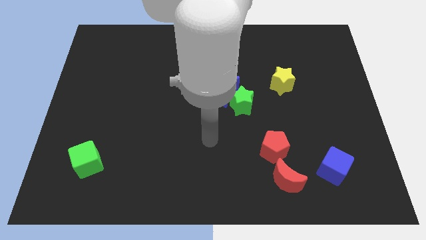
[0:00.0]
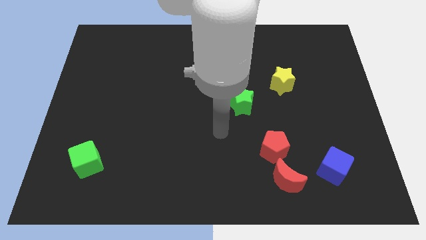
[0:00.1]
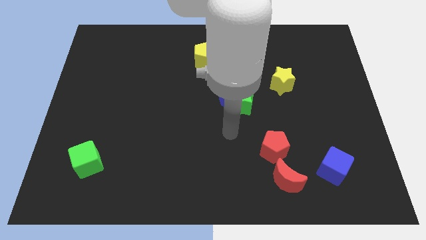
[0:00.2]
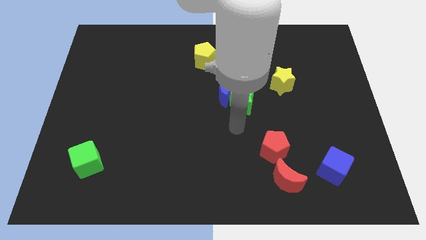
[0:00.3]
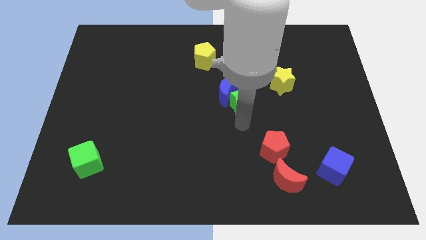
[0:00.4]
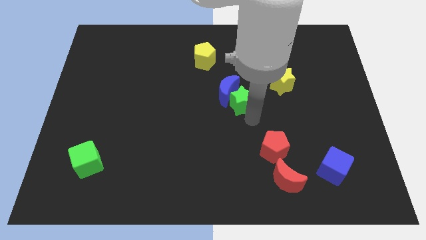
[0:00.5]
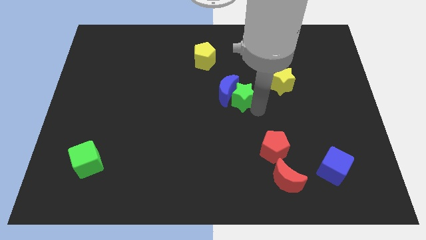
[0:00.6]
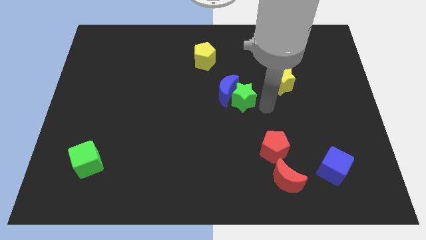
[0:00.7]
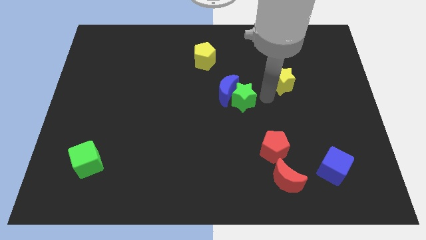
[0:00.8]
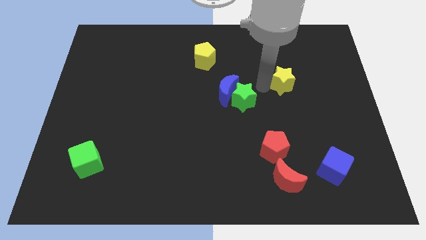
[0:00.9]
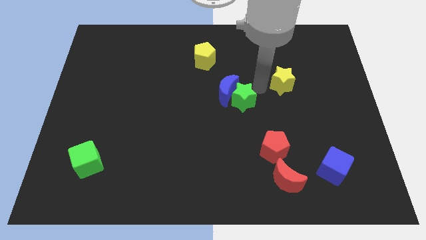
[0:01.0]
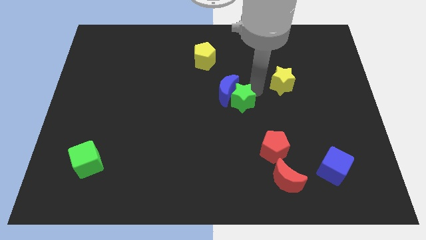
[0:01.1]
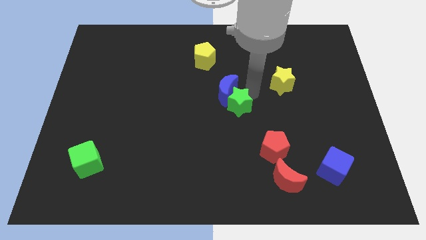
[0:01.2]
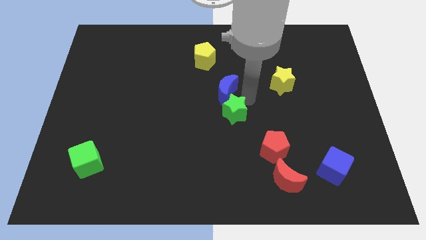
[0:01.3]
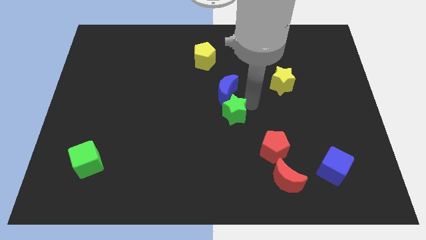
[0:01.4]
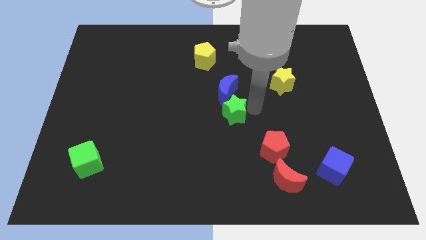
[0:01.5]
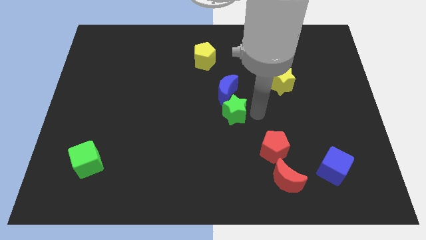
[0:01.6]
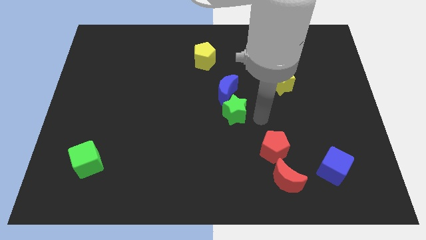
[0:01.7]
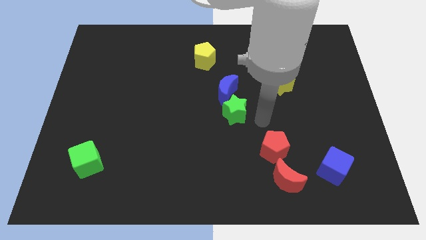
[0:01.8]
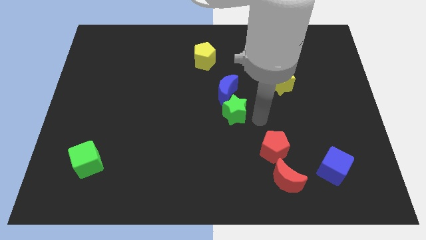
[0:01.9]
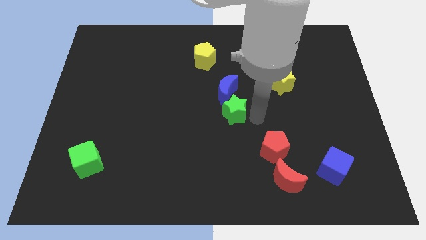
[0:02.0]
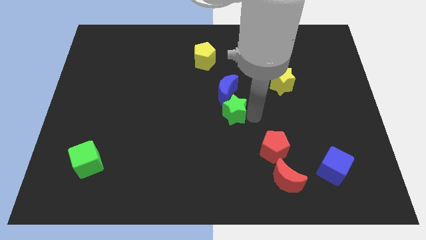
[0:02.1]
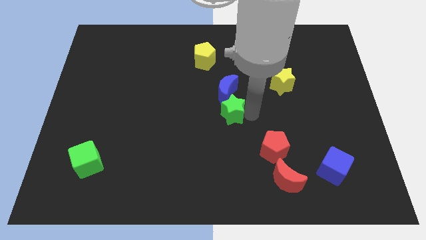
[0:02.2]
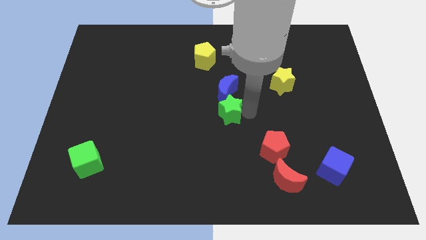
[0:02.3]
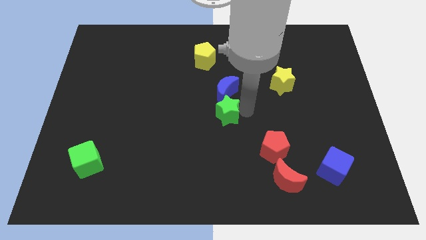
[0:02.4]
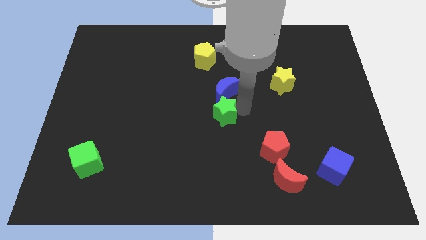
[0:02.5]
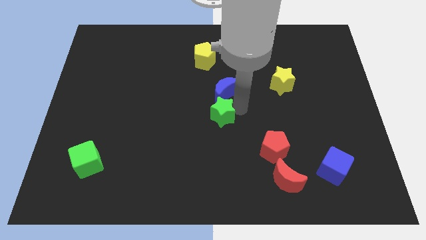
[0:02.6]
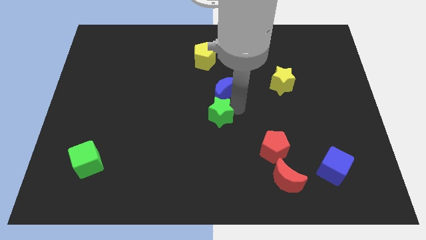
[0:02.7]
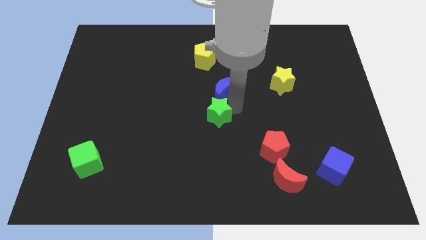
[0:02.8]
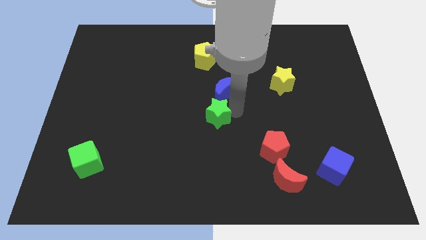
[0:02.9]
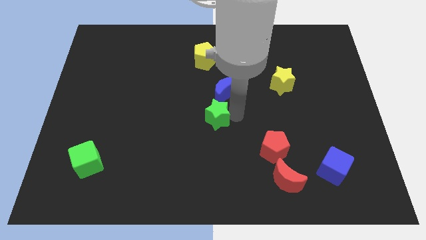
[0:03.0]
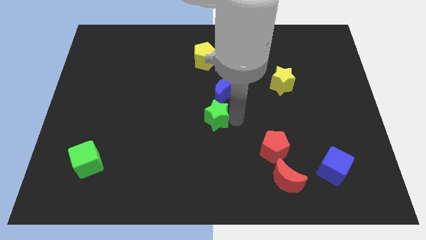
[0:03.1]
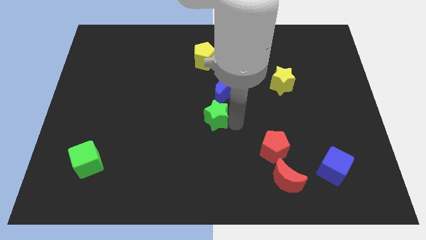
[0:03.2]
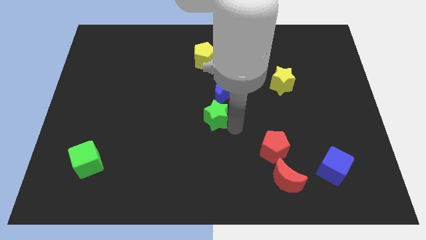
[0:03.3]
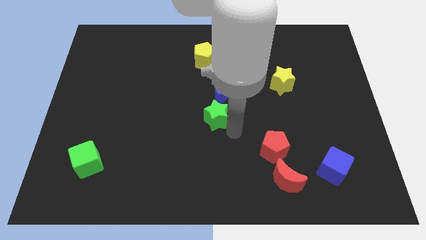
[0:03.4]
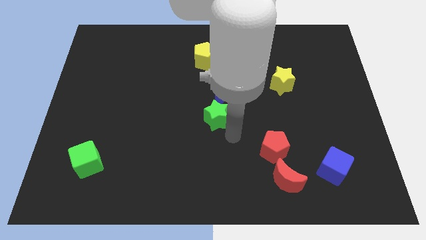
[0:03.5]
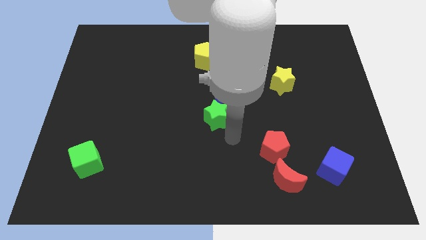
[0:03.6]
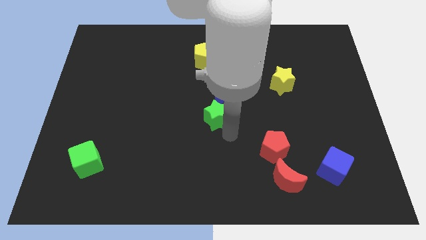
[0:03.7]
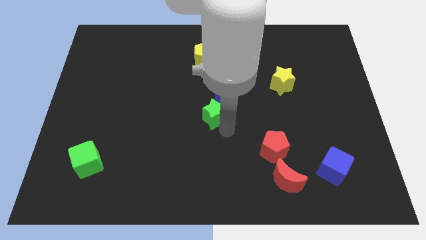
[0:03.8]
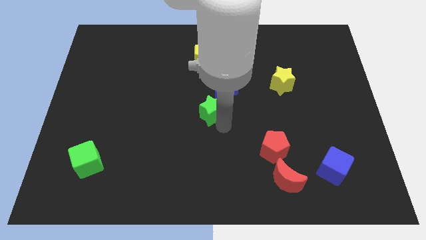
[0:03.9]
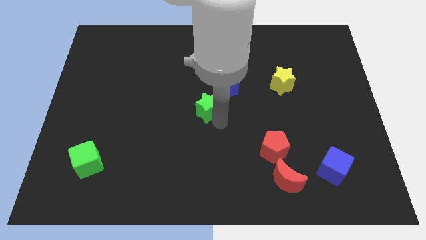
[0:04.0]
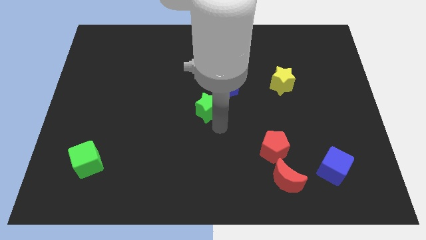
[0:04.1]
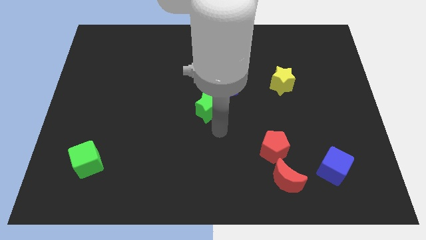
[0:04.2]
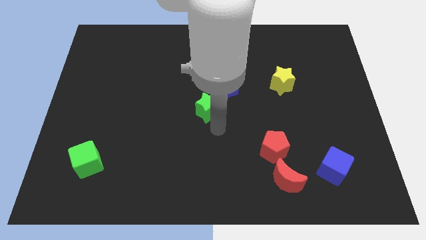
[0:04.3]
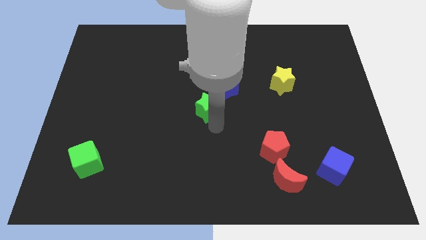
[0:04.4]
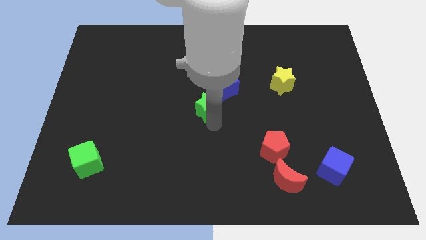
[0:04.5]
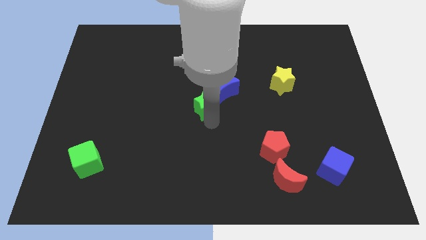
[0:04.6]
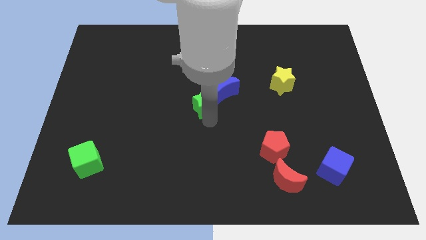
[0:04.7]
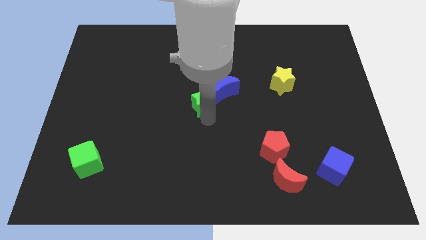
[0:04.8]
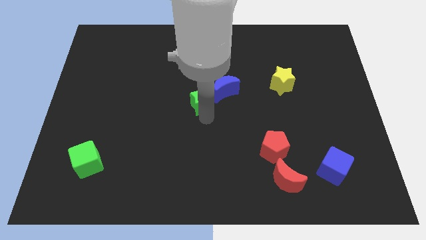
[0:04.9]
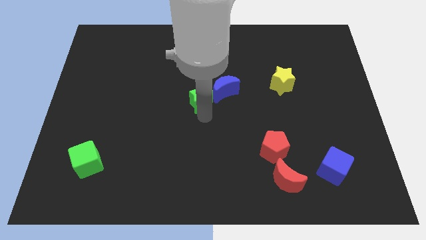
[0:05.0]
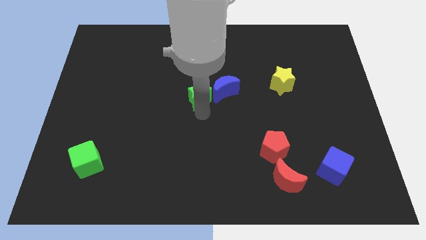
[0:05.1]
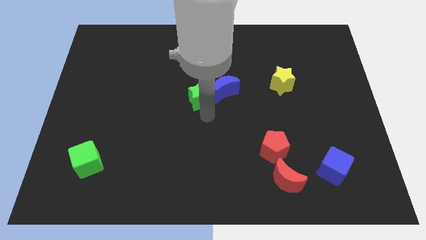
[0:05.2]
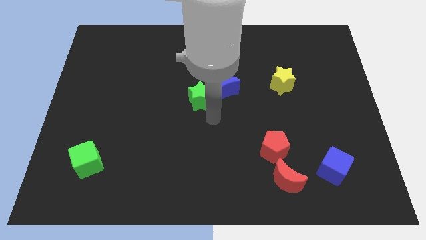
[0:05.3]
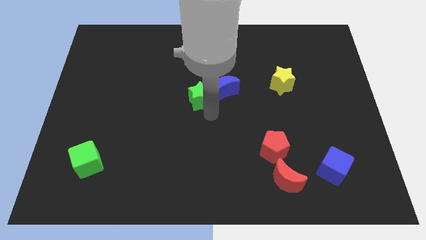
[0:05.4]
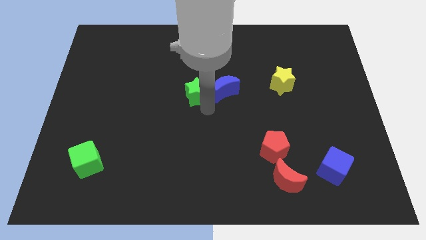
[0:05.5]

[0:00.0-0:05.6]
slightly move the green star up and then to the left

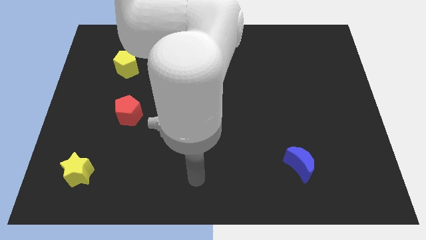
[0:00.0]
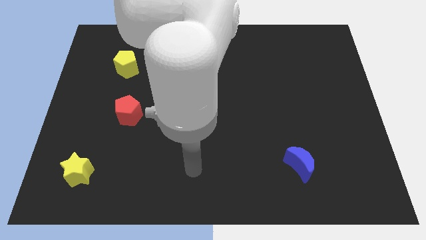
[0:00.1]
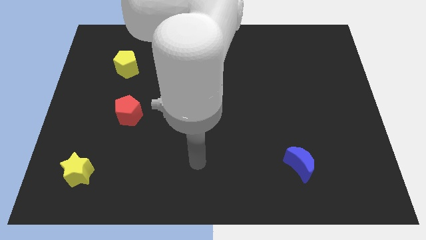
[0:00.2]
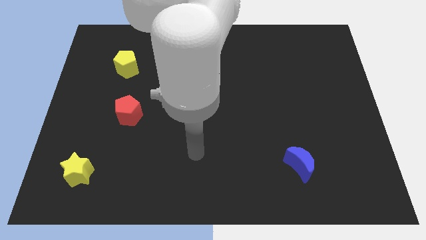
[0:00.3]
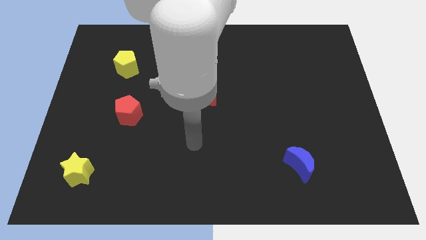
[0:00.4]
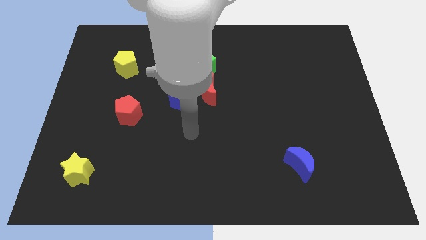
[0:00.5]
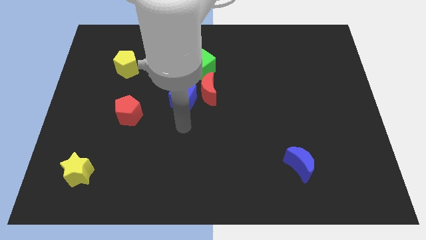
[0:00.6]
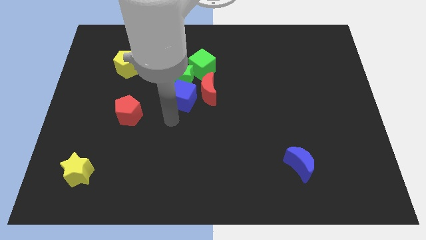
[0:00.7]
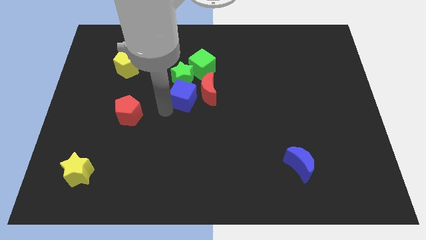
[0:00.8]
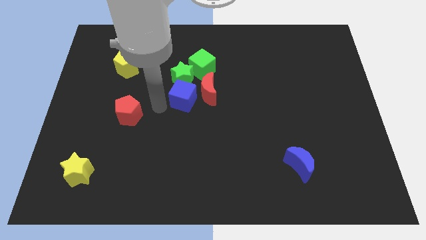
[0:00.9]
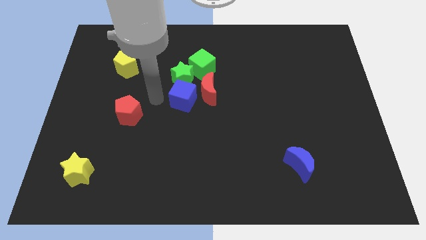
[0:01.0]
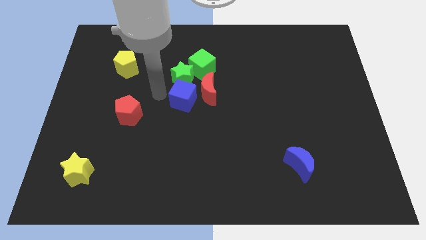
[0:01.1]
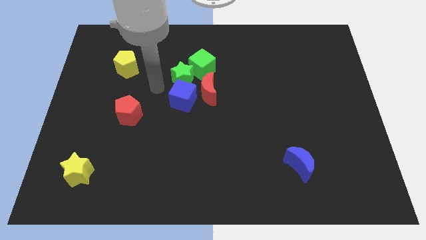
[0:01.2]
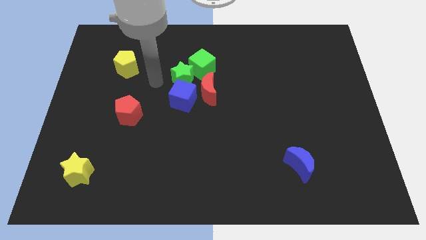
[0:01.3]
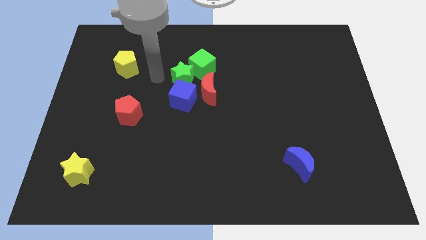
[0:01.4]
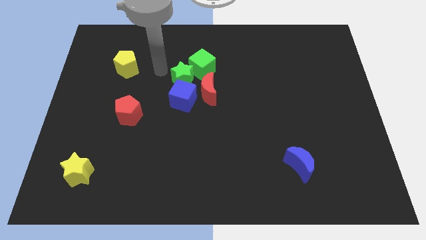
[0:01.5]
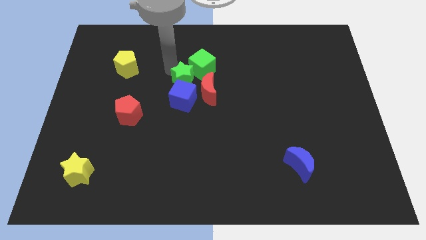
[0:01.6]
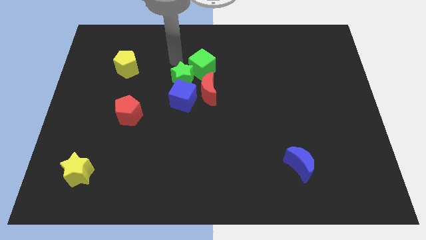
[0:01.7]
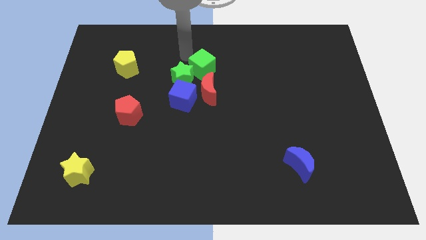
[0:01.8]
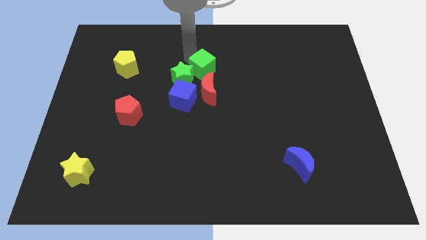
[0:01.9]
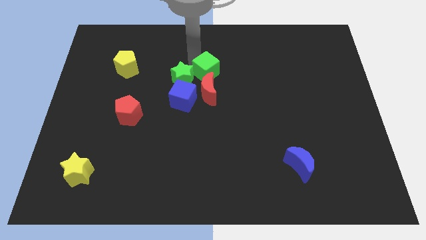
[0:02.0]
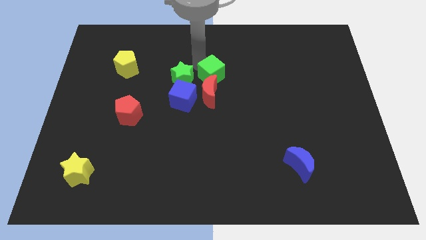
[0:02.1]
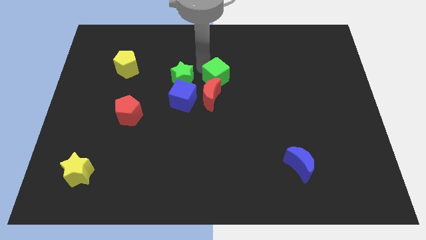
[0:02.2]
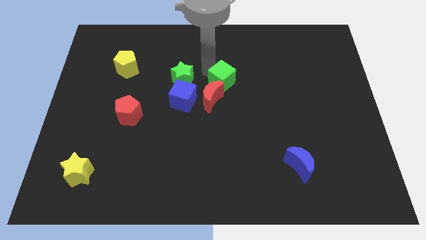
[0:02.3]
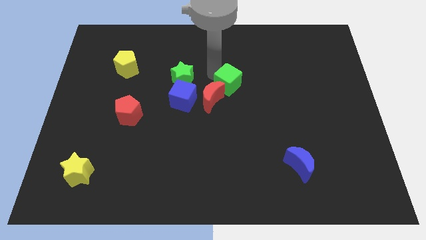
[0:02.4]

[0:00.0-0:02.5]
slide the green cube down and right somewhat
